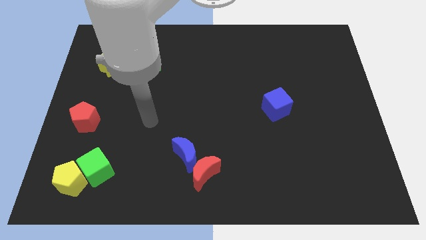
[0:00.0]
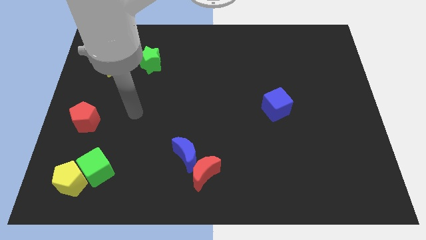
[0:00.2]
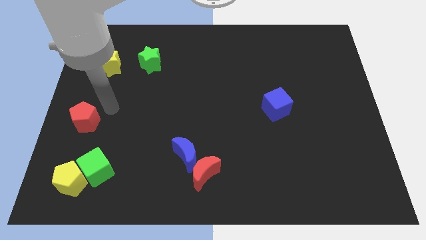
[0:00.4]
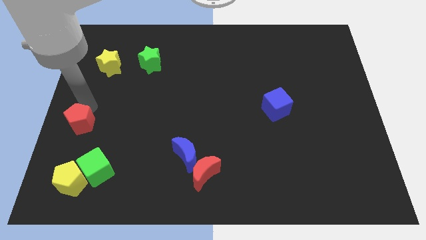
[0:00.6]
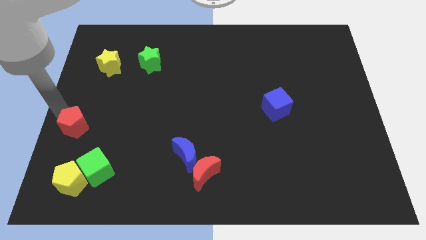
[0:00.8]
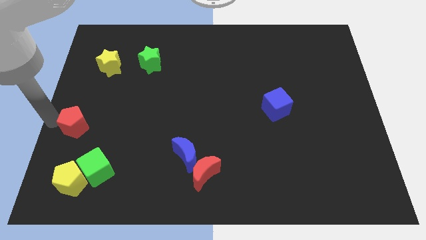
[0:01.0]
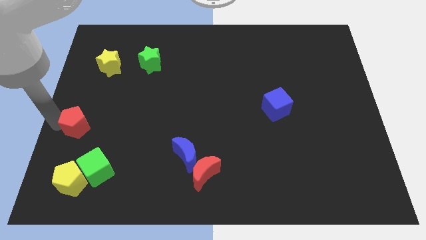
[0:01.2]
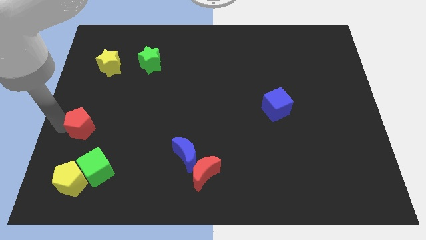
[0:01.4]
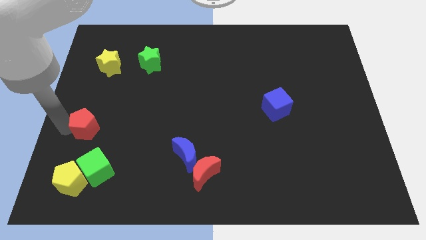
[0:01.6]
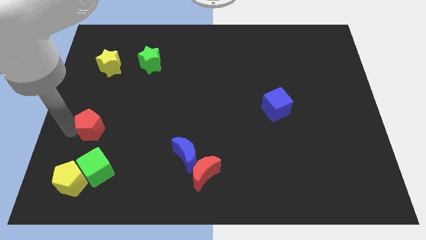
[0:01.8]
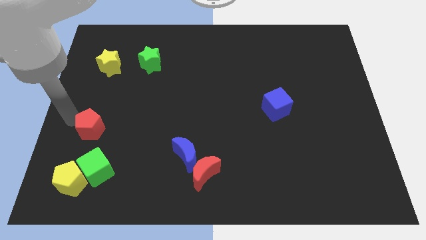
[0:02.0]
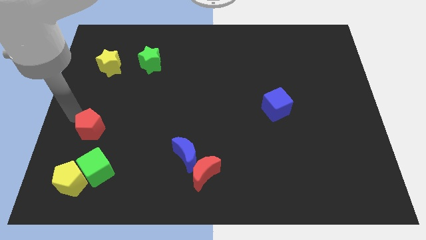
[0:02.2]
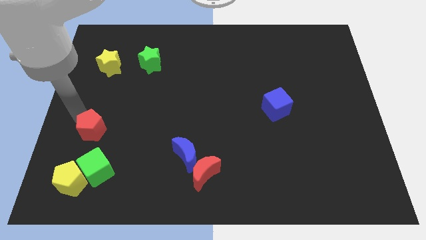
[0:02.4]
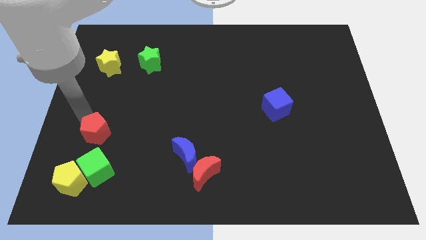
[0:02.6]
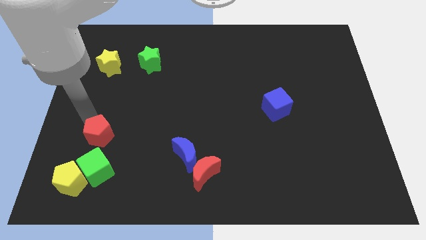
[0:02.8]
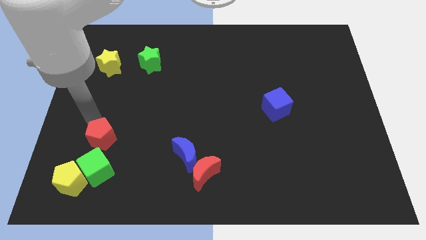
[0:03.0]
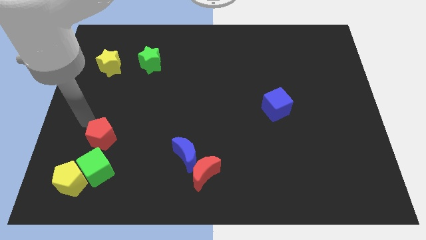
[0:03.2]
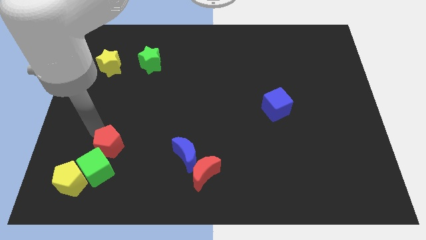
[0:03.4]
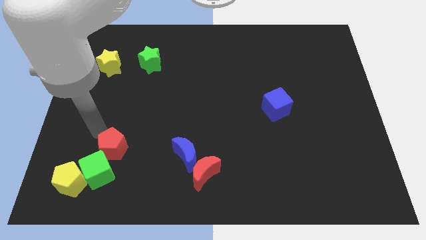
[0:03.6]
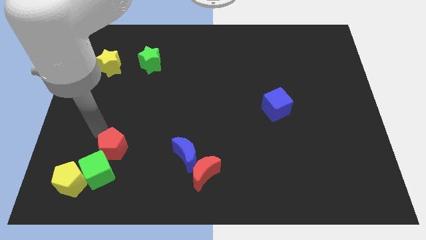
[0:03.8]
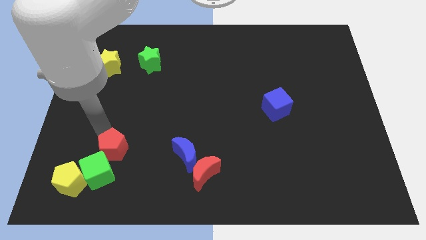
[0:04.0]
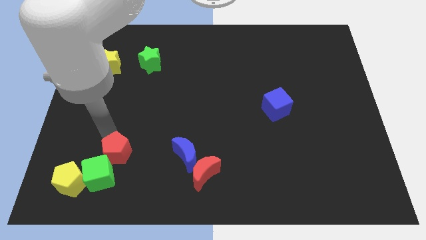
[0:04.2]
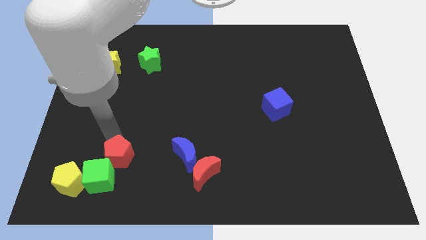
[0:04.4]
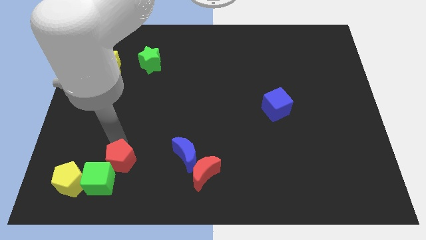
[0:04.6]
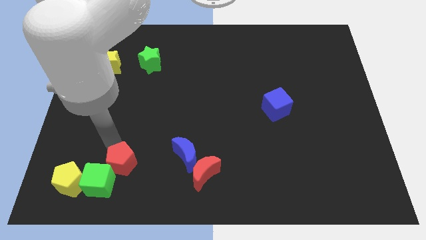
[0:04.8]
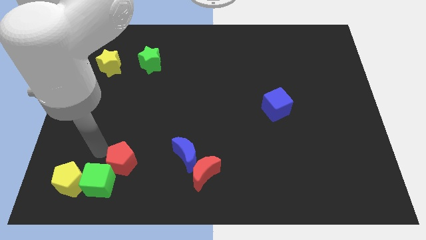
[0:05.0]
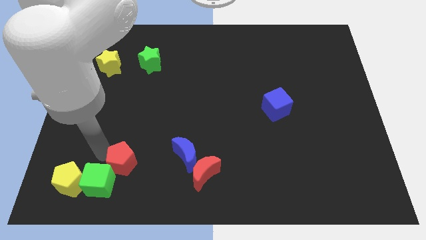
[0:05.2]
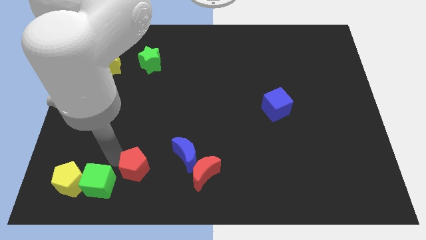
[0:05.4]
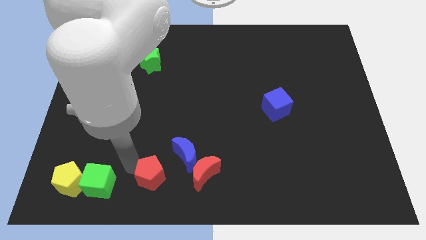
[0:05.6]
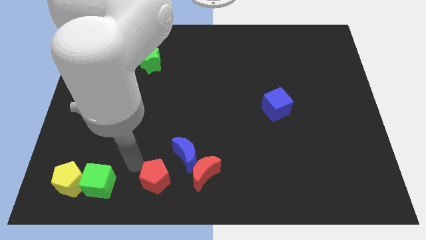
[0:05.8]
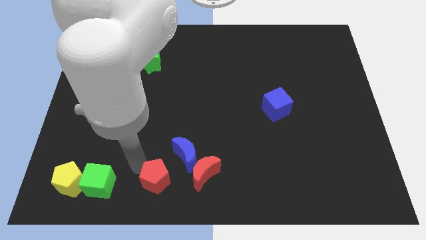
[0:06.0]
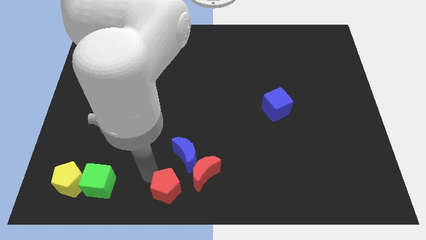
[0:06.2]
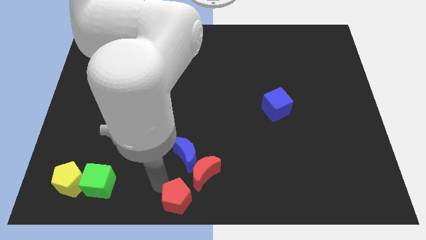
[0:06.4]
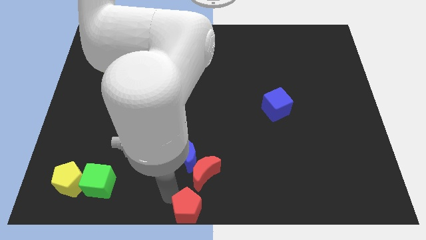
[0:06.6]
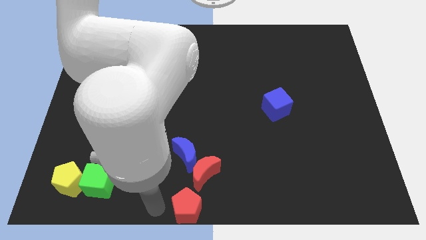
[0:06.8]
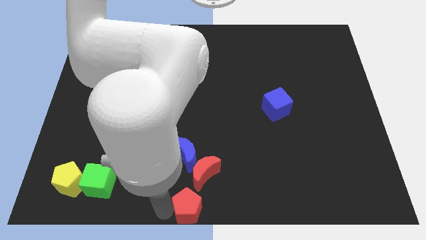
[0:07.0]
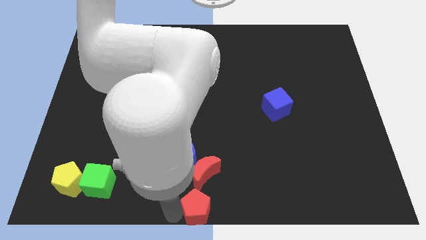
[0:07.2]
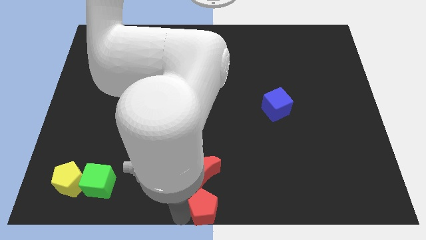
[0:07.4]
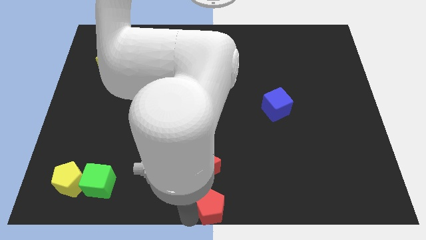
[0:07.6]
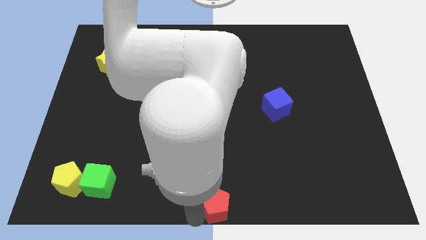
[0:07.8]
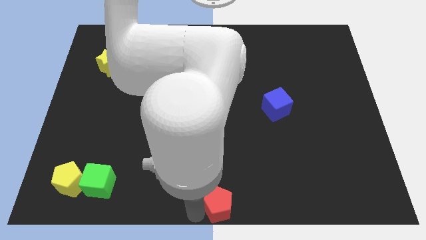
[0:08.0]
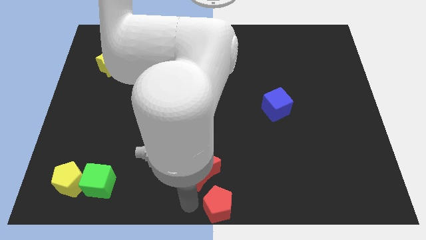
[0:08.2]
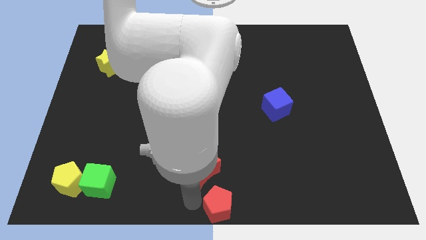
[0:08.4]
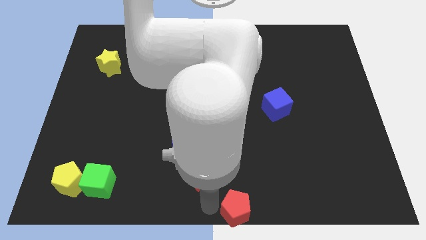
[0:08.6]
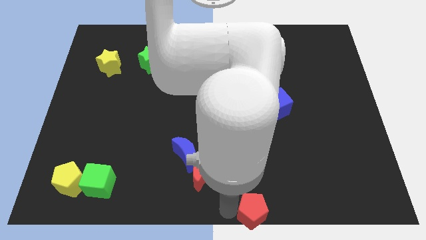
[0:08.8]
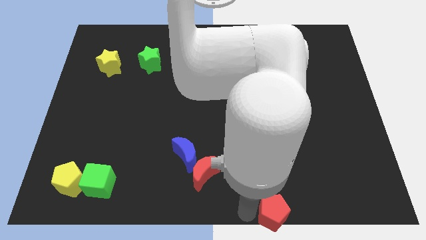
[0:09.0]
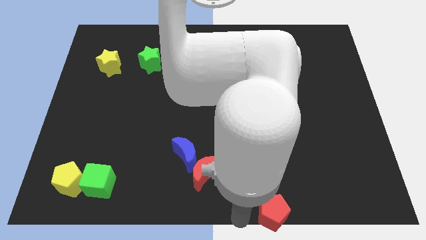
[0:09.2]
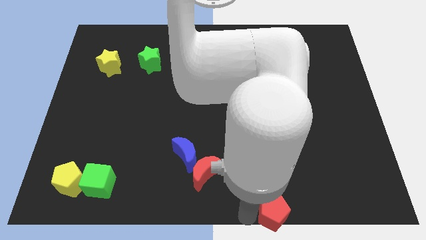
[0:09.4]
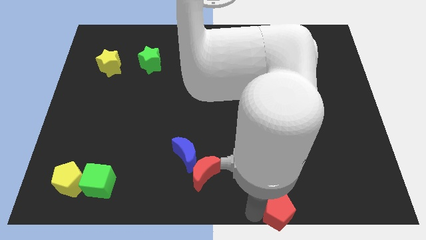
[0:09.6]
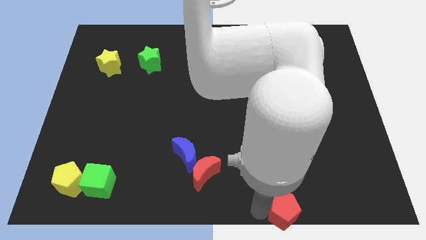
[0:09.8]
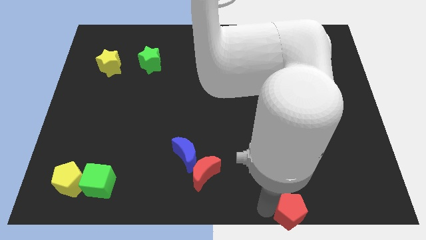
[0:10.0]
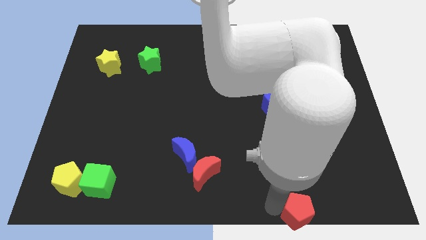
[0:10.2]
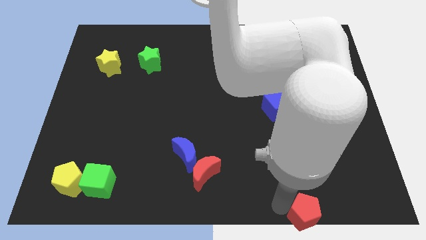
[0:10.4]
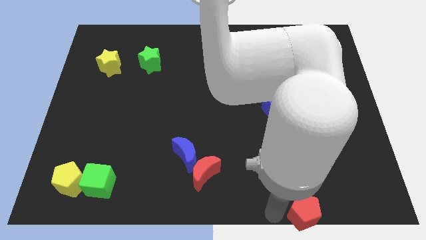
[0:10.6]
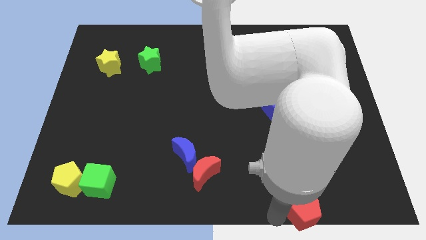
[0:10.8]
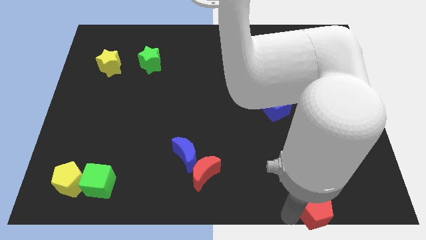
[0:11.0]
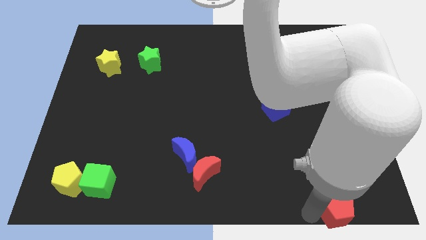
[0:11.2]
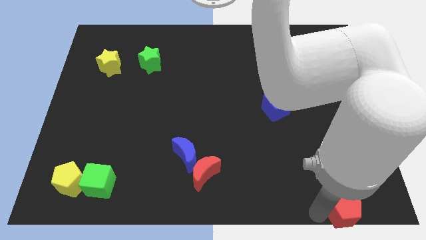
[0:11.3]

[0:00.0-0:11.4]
push the red pentagon to the bottom right corner
